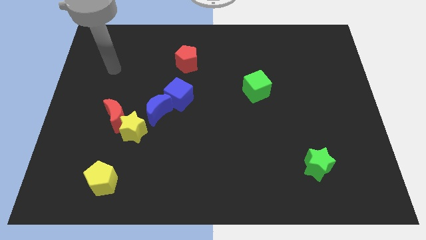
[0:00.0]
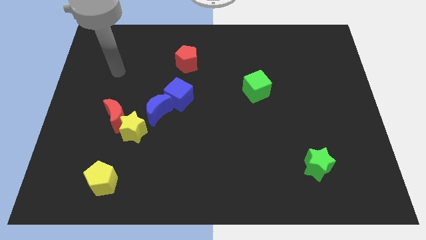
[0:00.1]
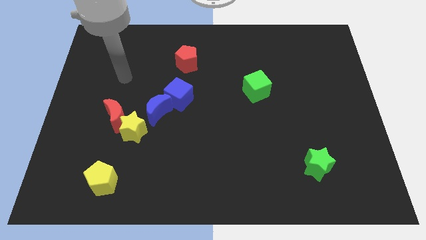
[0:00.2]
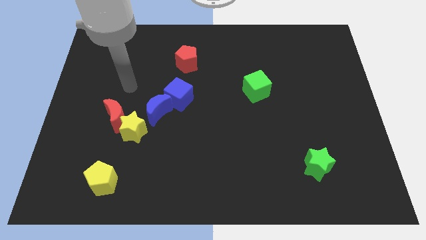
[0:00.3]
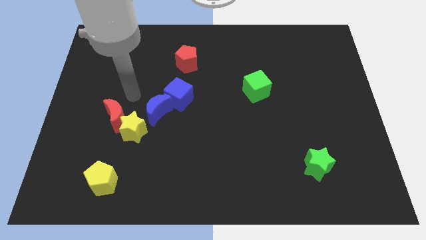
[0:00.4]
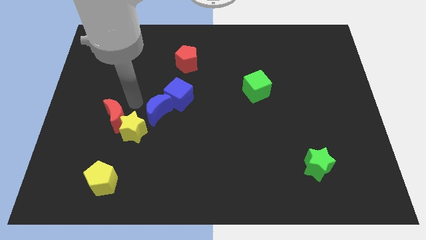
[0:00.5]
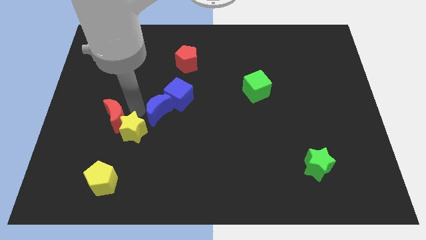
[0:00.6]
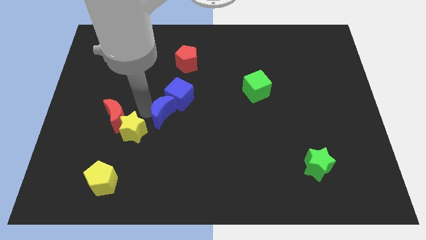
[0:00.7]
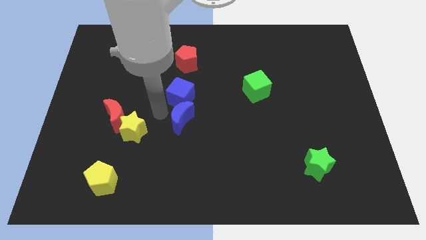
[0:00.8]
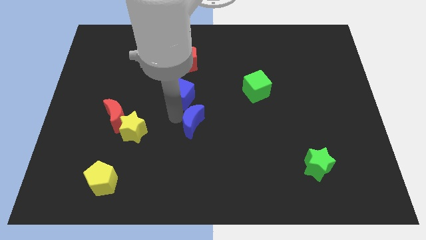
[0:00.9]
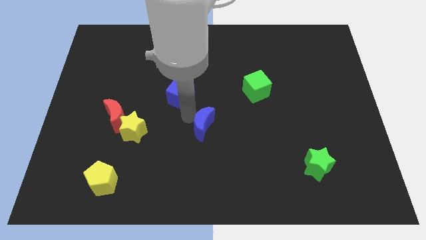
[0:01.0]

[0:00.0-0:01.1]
pull the blue cube apart from the blue moon

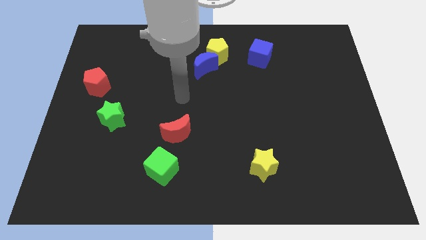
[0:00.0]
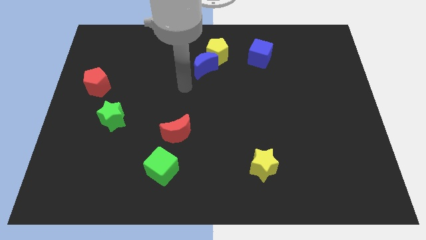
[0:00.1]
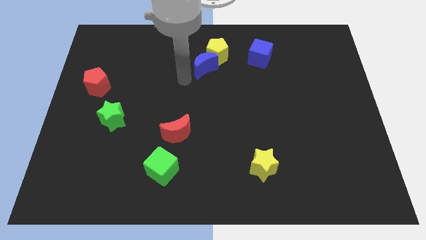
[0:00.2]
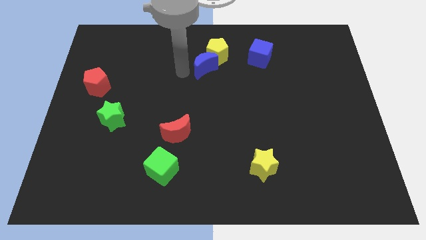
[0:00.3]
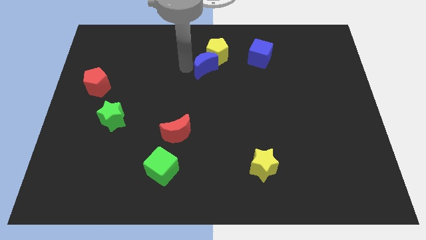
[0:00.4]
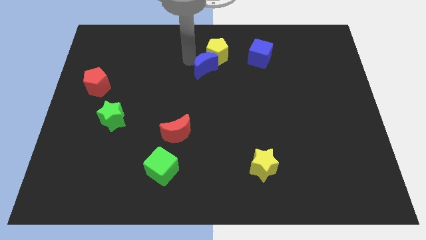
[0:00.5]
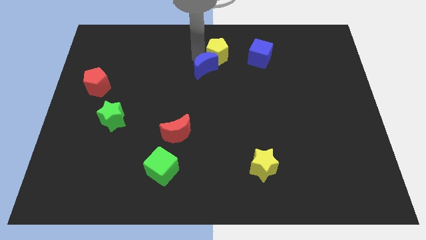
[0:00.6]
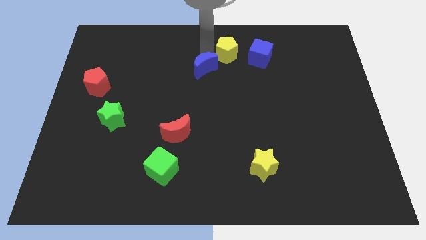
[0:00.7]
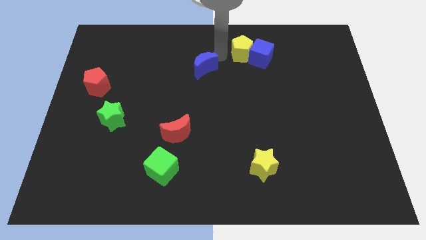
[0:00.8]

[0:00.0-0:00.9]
pull the blue moon apart from the yellow pentagon

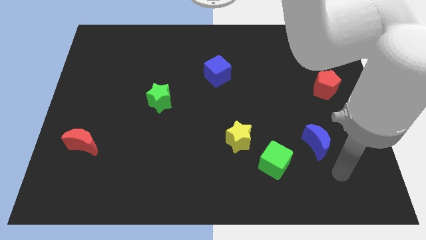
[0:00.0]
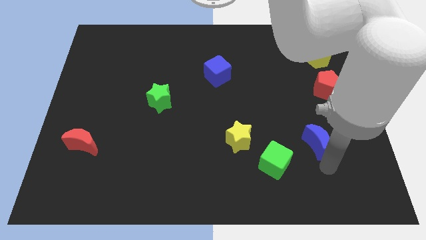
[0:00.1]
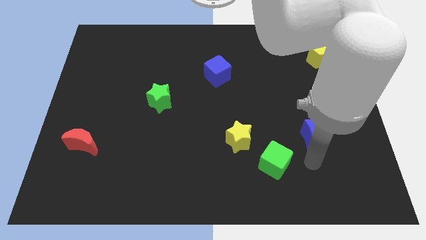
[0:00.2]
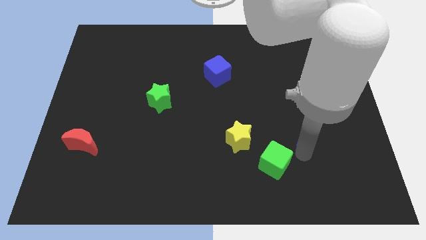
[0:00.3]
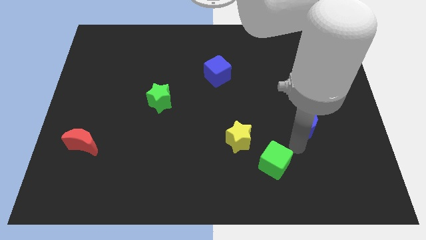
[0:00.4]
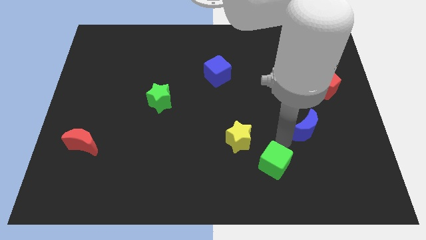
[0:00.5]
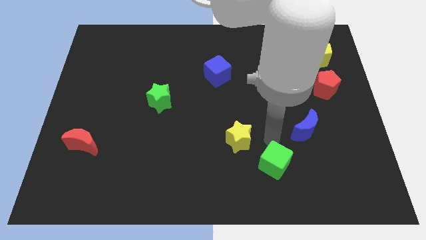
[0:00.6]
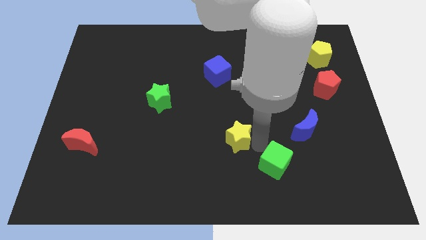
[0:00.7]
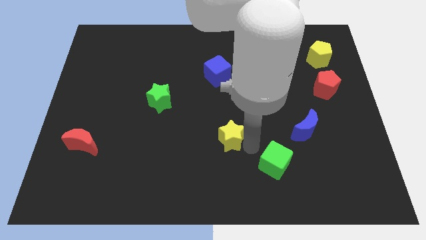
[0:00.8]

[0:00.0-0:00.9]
separate the green cube from the yellow star

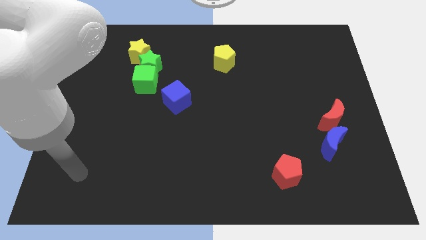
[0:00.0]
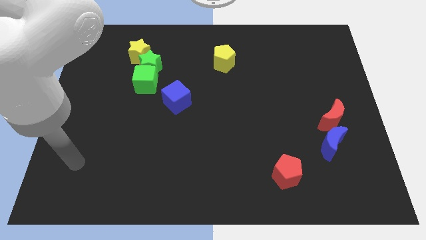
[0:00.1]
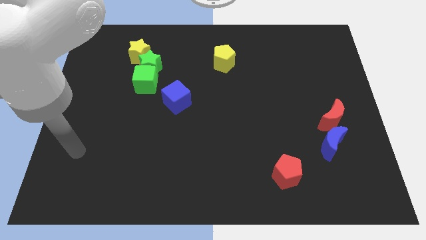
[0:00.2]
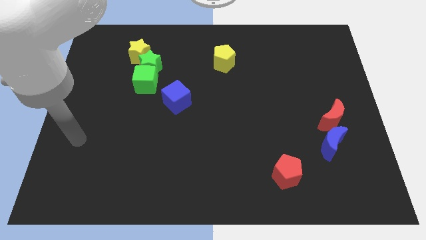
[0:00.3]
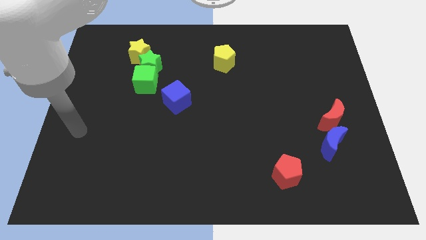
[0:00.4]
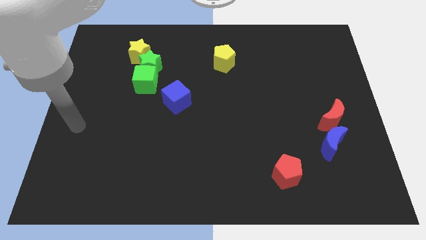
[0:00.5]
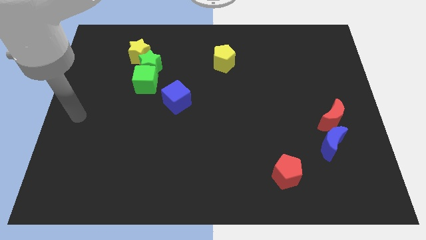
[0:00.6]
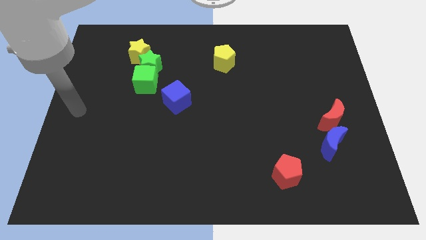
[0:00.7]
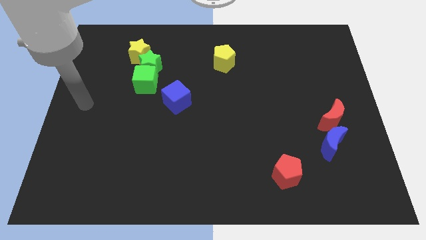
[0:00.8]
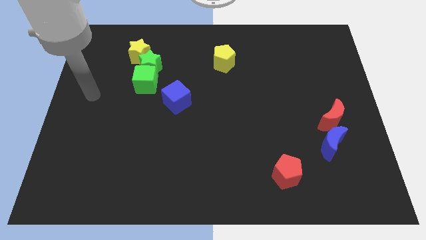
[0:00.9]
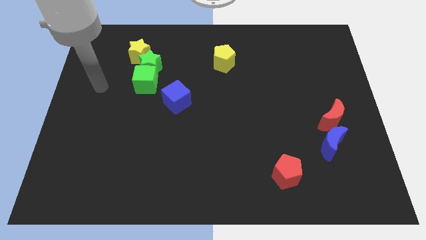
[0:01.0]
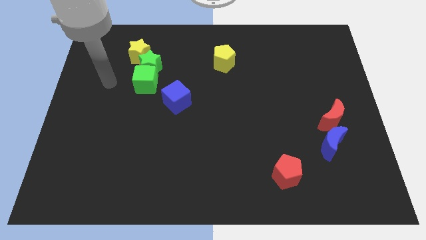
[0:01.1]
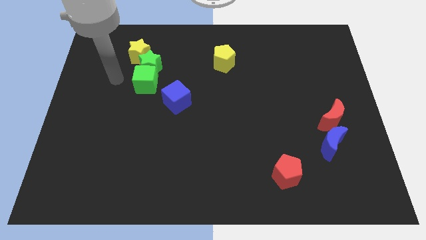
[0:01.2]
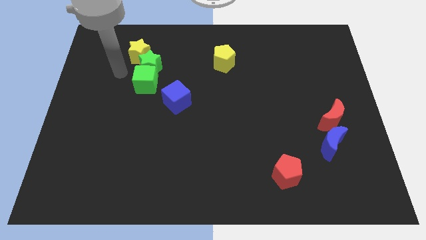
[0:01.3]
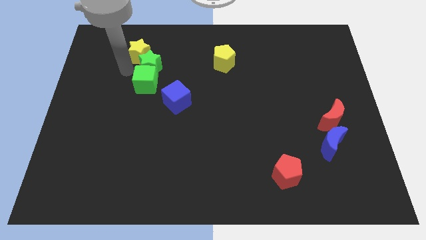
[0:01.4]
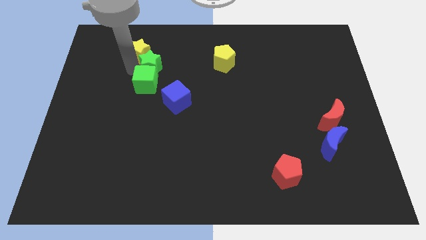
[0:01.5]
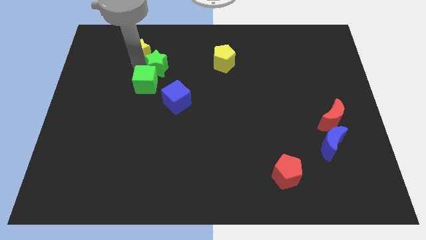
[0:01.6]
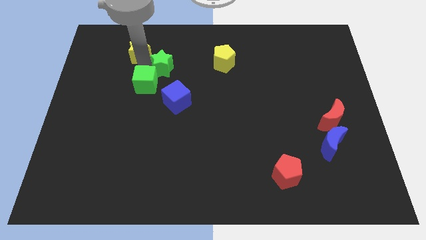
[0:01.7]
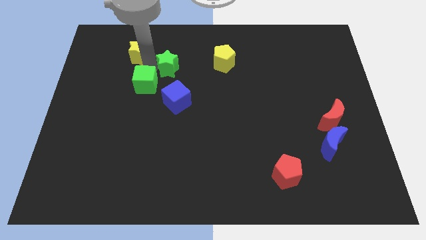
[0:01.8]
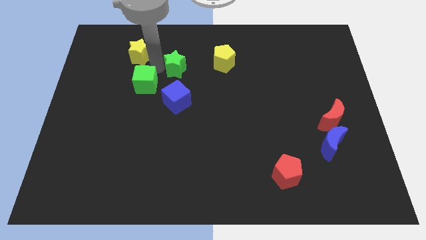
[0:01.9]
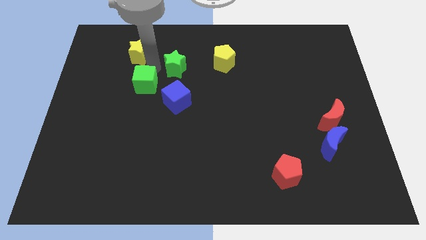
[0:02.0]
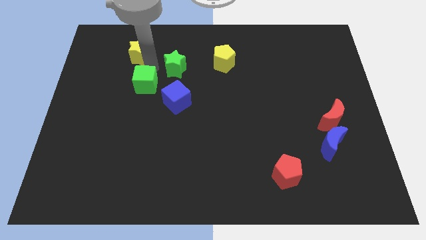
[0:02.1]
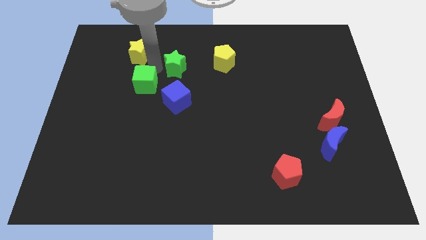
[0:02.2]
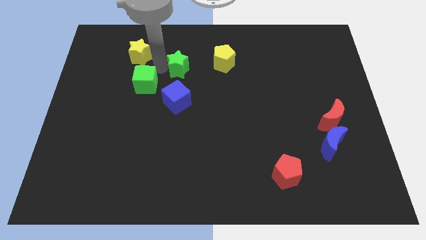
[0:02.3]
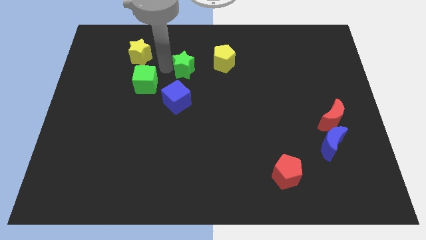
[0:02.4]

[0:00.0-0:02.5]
pull the green star apart from the green cube and yellow star

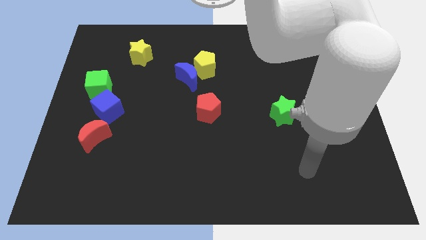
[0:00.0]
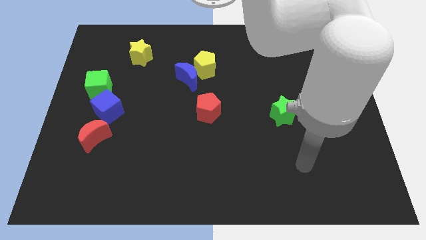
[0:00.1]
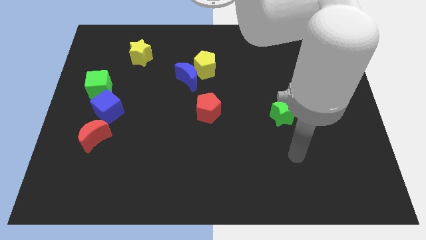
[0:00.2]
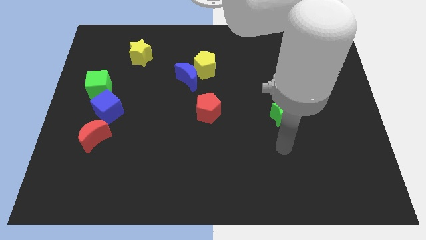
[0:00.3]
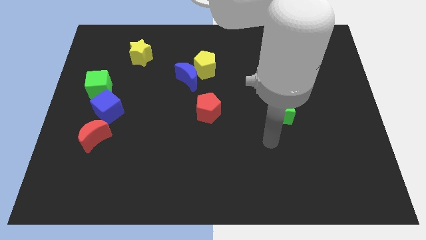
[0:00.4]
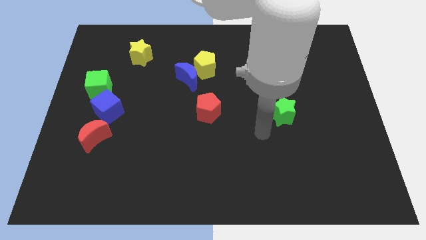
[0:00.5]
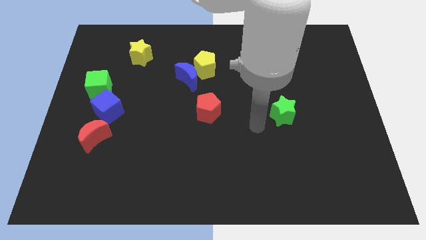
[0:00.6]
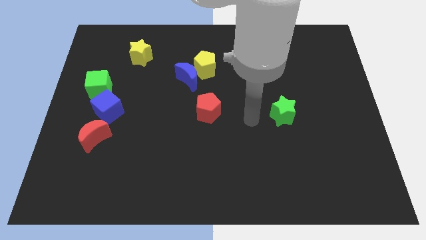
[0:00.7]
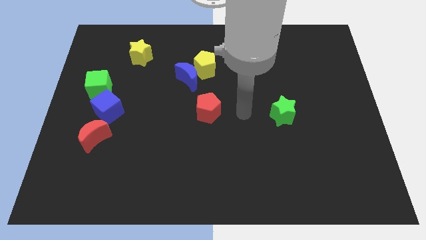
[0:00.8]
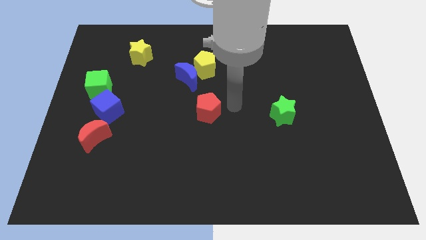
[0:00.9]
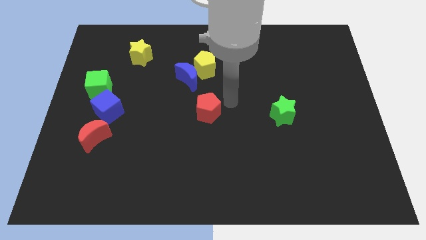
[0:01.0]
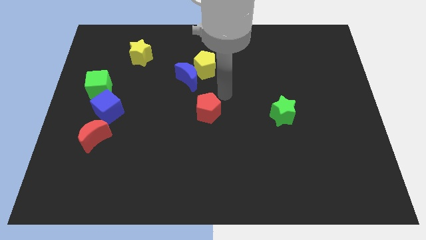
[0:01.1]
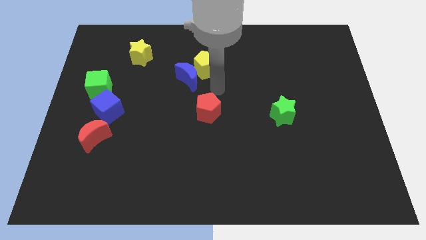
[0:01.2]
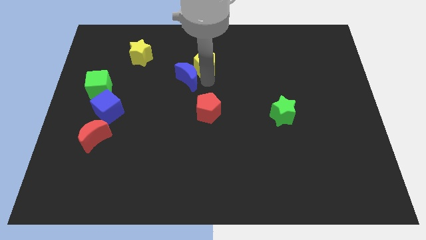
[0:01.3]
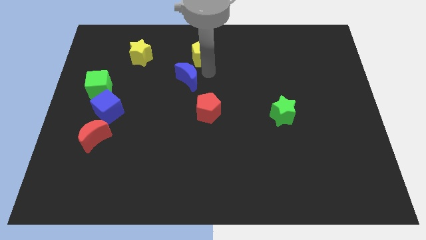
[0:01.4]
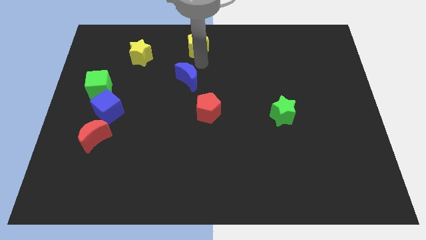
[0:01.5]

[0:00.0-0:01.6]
separate the blue moon from the yellow pentagon

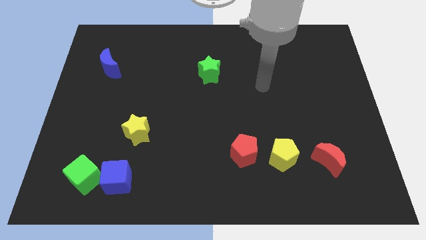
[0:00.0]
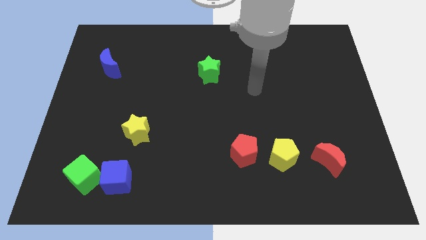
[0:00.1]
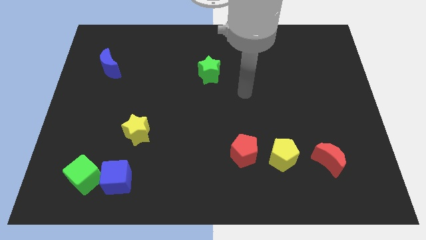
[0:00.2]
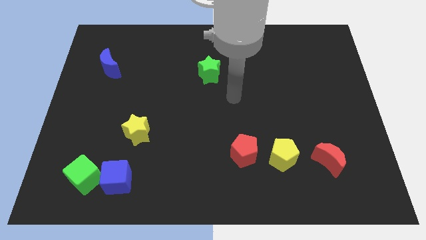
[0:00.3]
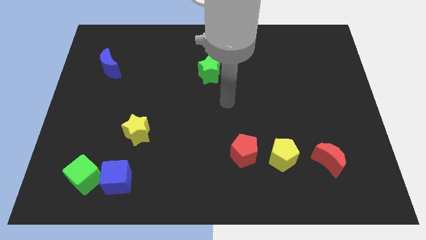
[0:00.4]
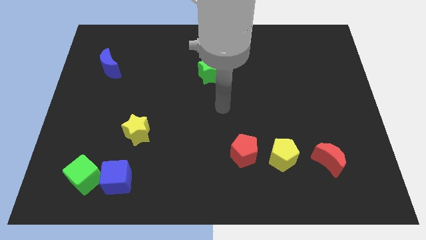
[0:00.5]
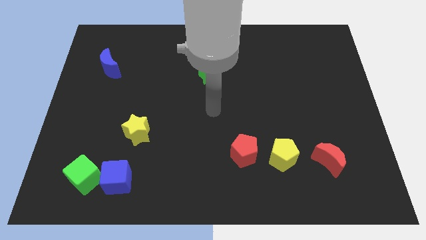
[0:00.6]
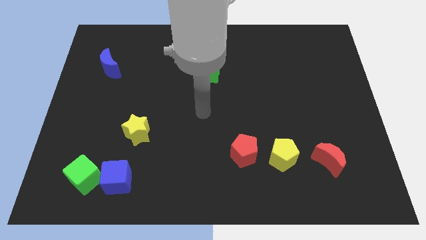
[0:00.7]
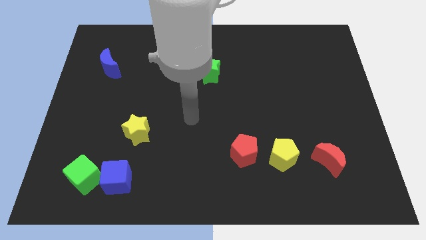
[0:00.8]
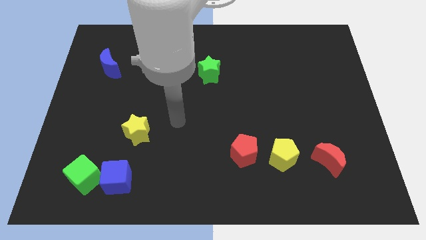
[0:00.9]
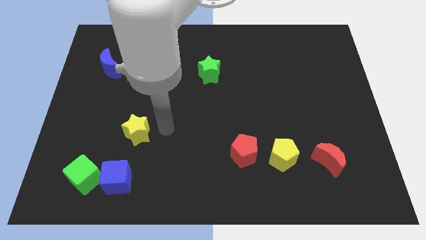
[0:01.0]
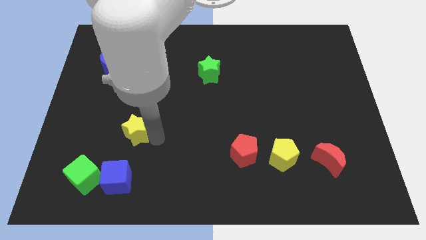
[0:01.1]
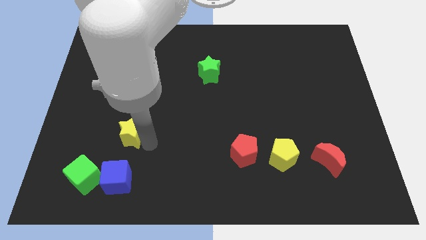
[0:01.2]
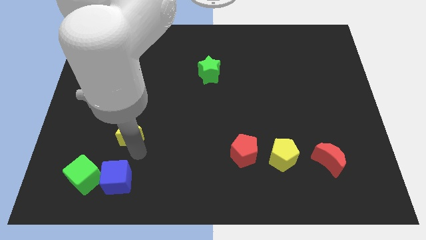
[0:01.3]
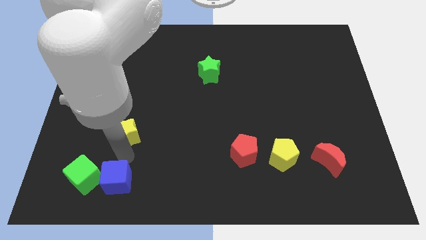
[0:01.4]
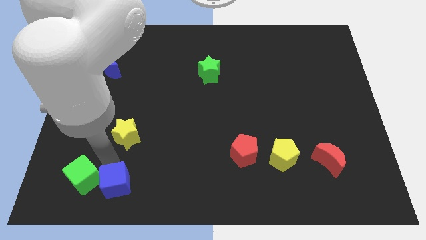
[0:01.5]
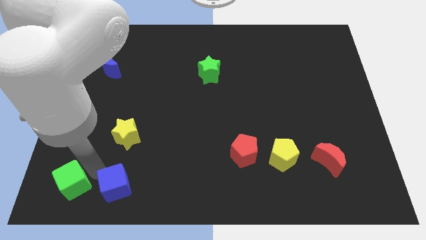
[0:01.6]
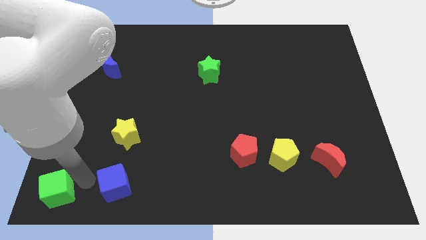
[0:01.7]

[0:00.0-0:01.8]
move the blue cube away from the green cube

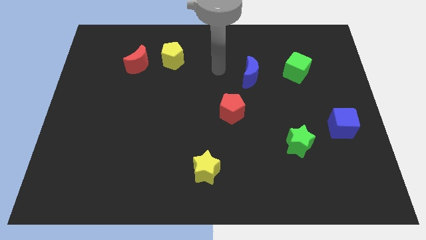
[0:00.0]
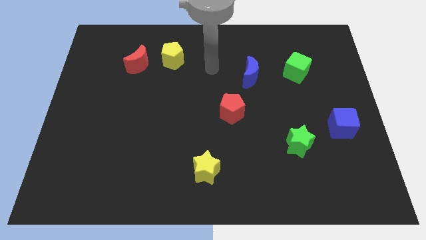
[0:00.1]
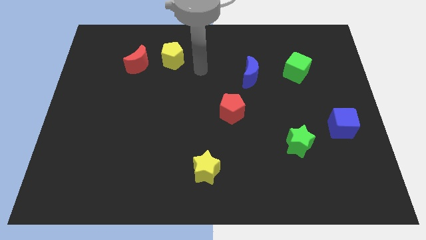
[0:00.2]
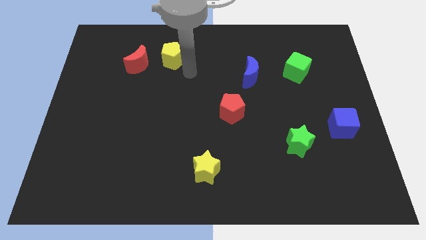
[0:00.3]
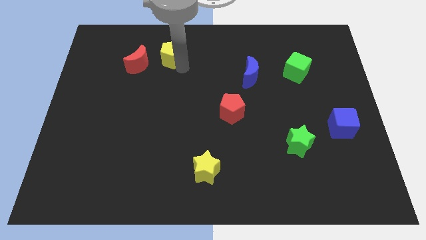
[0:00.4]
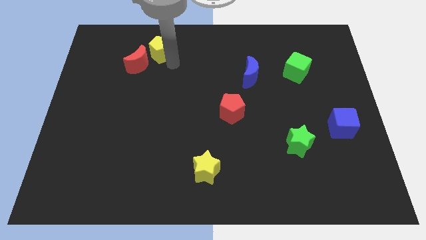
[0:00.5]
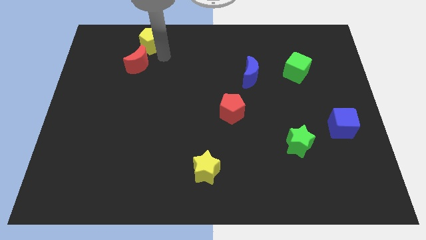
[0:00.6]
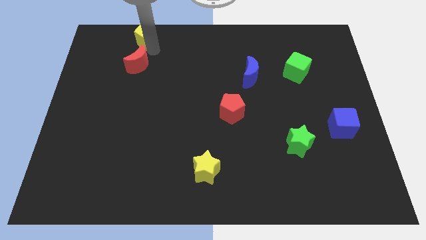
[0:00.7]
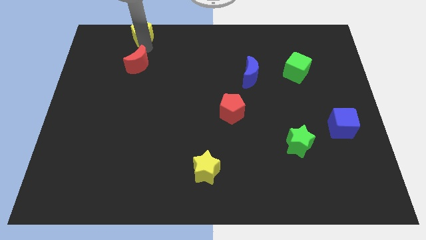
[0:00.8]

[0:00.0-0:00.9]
separate the red moon from the yellow pentagon
